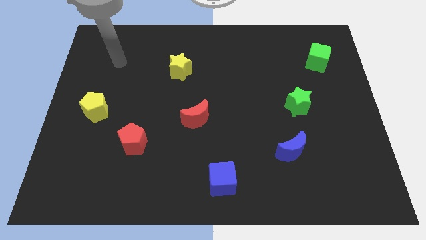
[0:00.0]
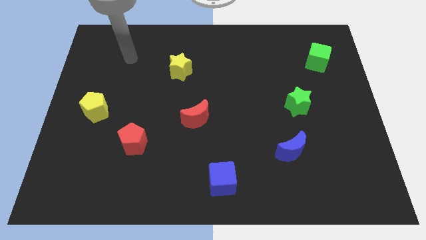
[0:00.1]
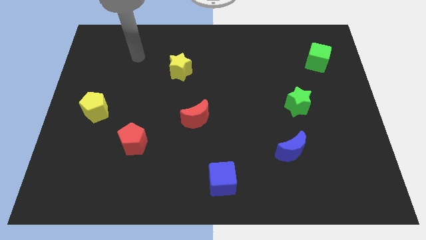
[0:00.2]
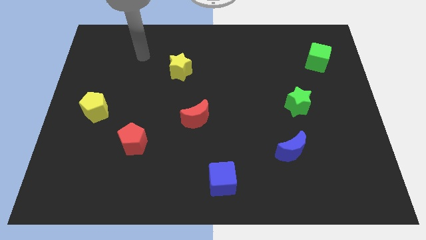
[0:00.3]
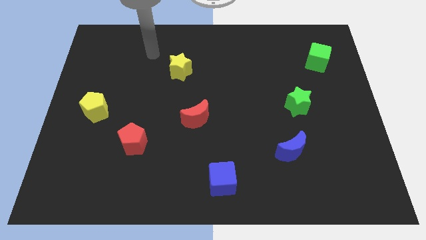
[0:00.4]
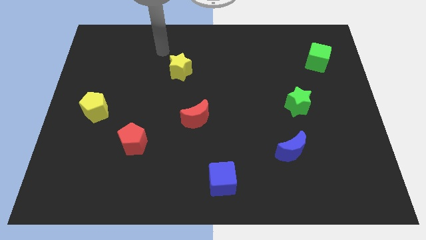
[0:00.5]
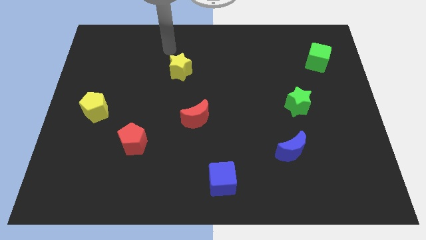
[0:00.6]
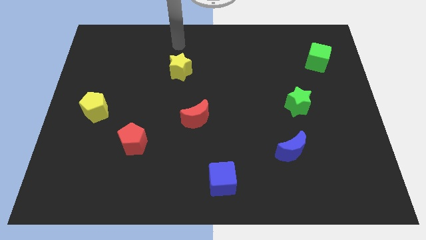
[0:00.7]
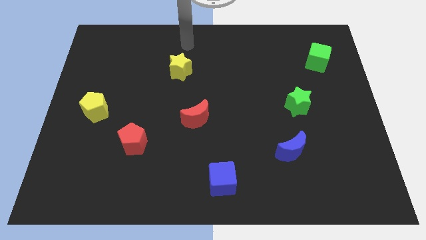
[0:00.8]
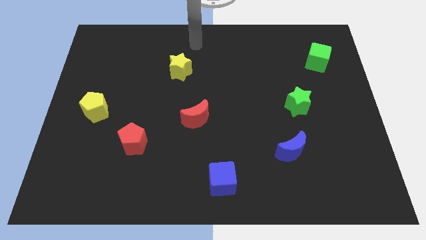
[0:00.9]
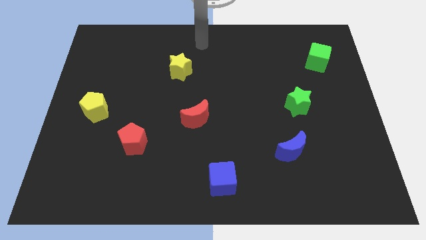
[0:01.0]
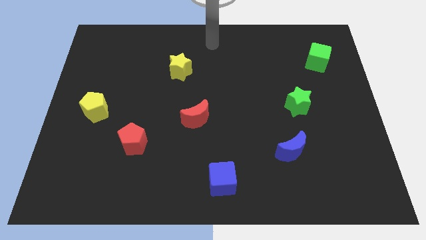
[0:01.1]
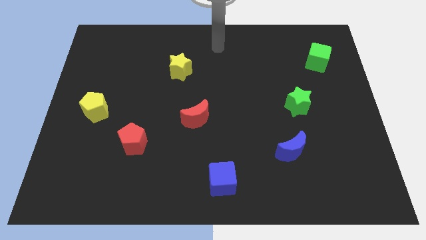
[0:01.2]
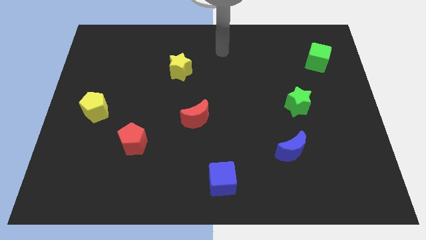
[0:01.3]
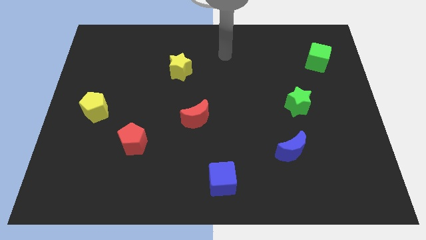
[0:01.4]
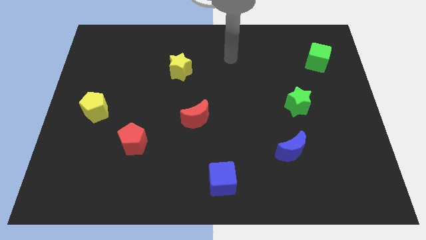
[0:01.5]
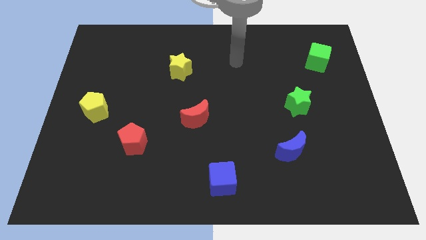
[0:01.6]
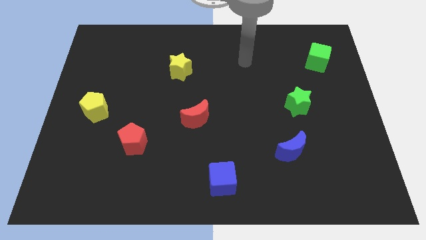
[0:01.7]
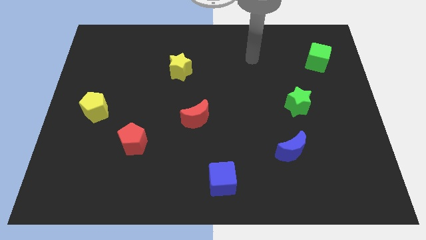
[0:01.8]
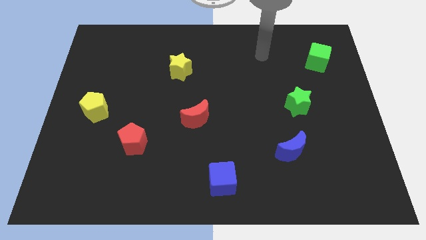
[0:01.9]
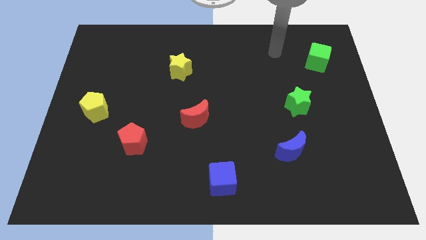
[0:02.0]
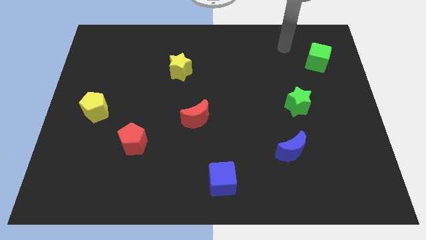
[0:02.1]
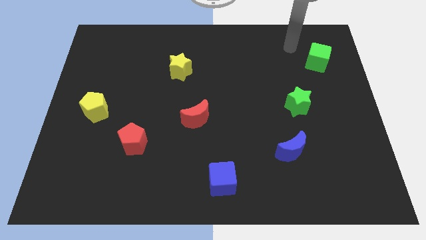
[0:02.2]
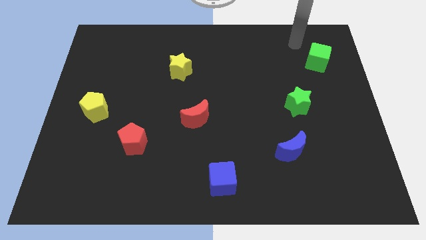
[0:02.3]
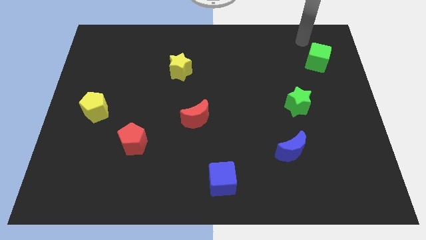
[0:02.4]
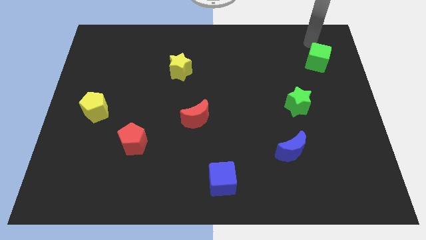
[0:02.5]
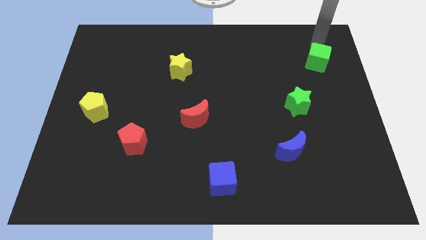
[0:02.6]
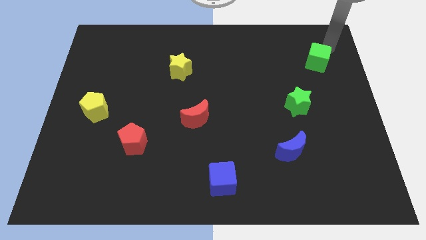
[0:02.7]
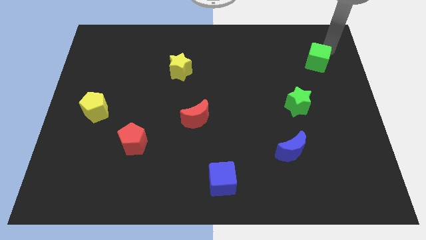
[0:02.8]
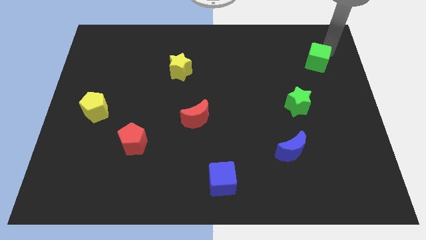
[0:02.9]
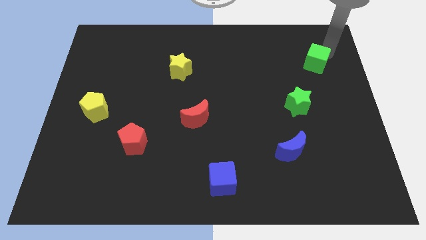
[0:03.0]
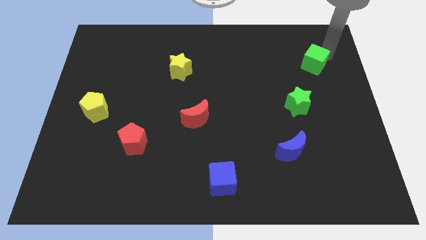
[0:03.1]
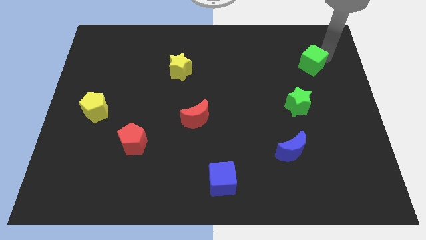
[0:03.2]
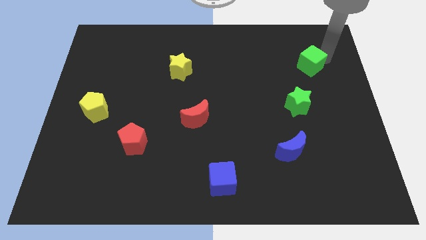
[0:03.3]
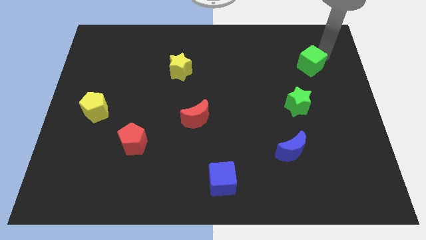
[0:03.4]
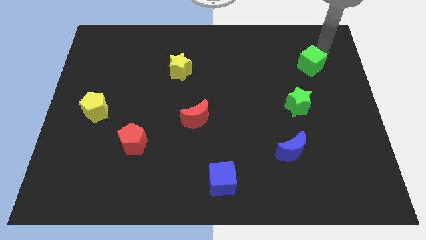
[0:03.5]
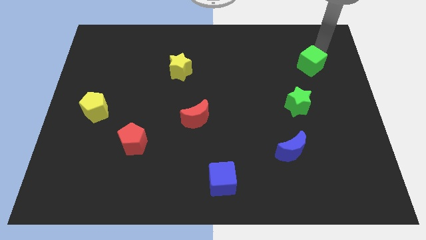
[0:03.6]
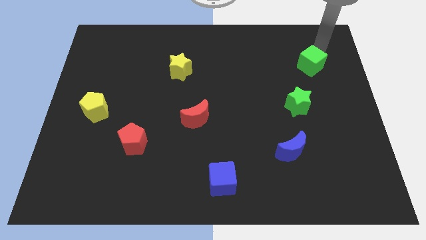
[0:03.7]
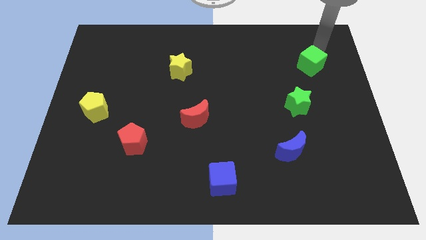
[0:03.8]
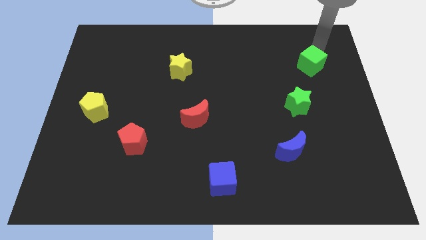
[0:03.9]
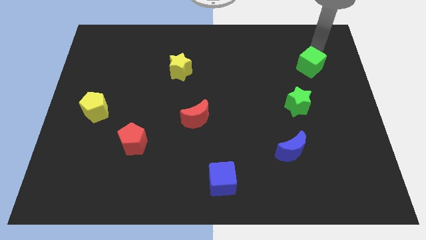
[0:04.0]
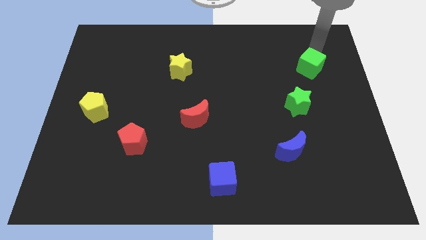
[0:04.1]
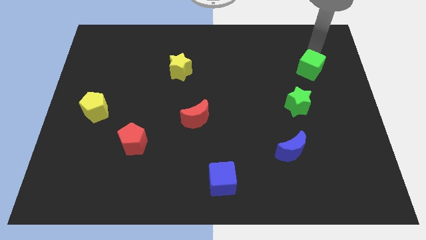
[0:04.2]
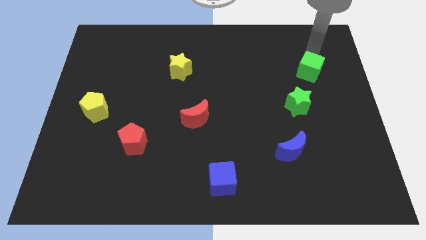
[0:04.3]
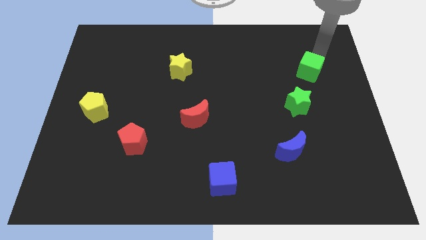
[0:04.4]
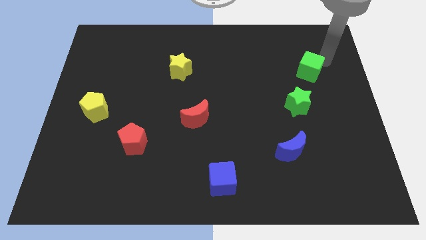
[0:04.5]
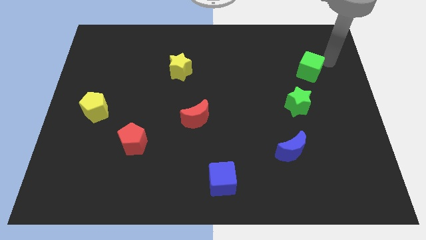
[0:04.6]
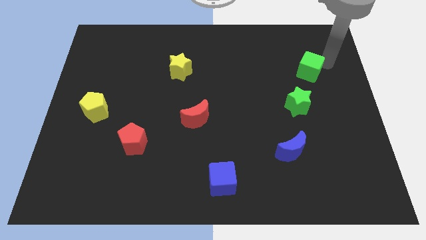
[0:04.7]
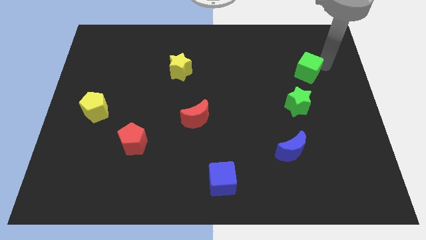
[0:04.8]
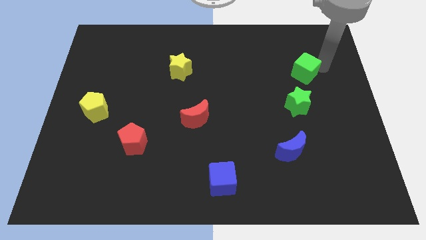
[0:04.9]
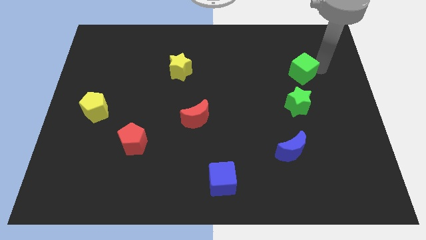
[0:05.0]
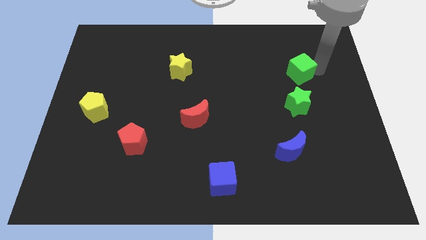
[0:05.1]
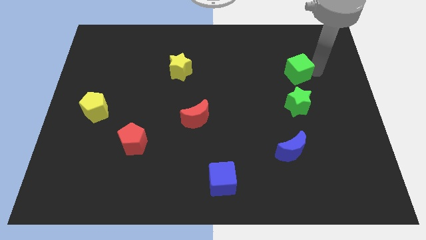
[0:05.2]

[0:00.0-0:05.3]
slide the green cube downwards and to the left slightly

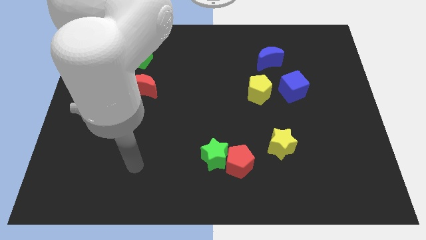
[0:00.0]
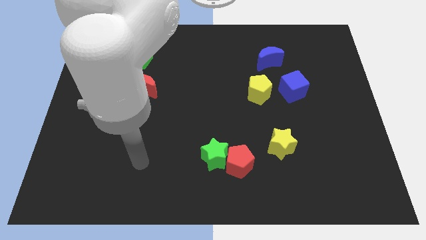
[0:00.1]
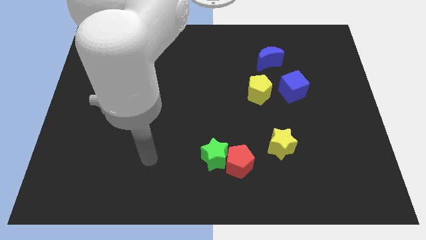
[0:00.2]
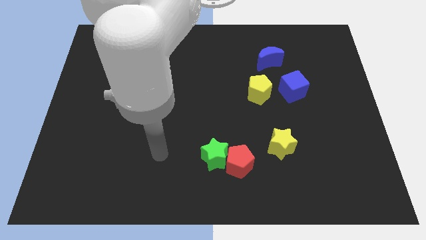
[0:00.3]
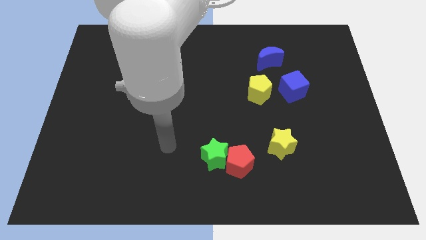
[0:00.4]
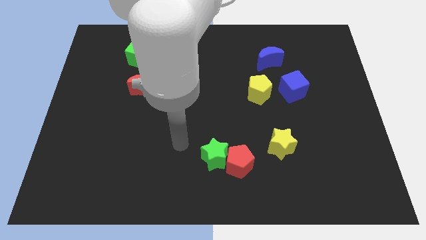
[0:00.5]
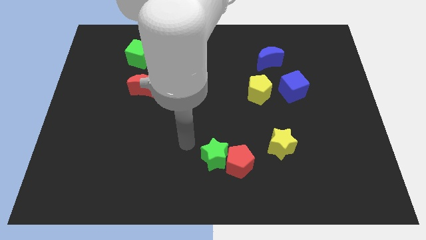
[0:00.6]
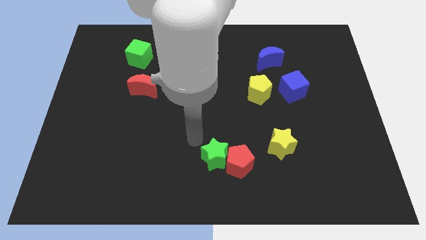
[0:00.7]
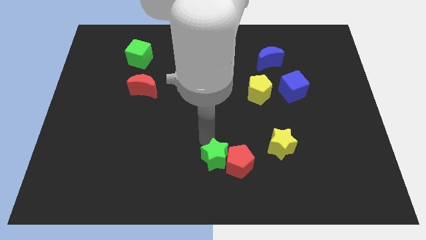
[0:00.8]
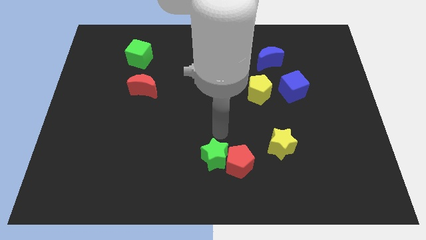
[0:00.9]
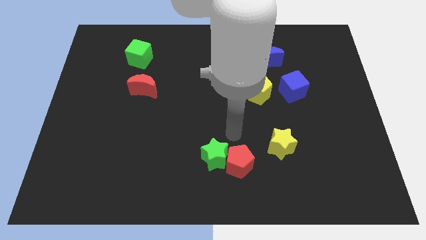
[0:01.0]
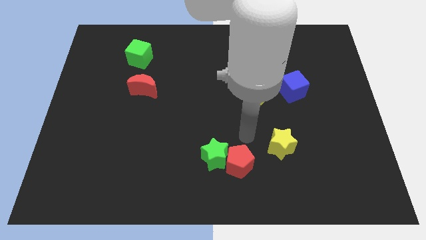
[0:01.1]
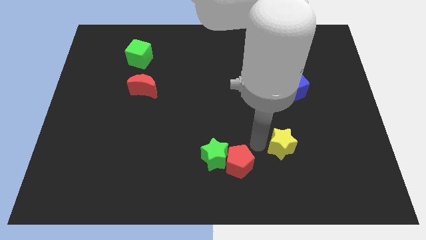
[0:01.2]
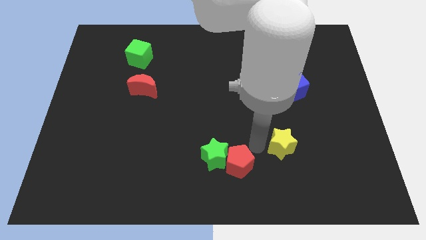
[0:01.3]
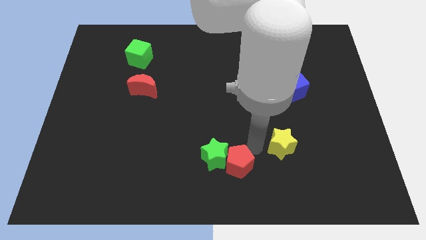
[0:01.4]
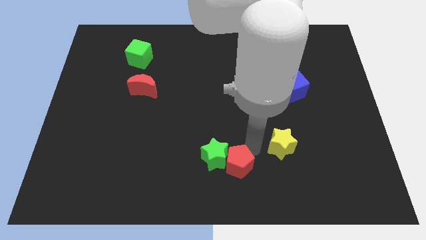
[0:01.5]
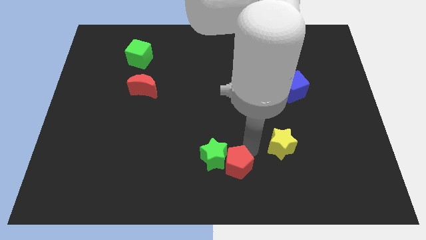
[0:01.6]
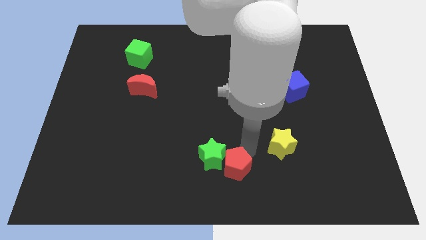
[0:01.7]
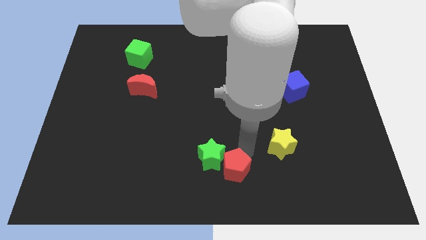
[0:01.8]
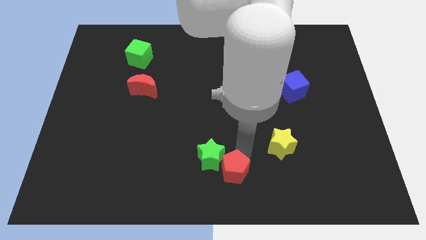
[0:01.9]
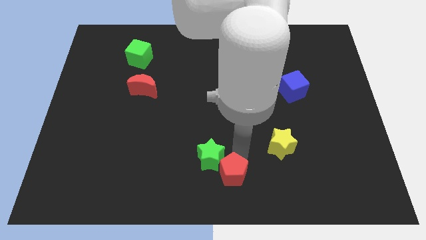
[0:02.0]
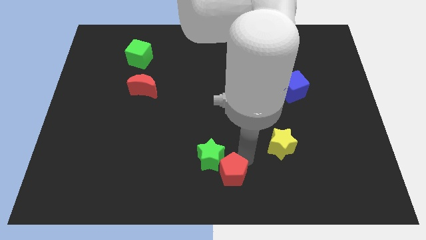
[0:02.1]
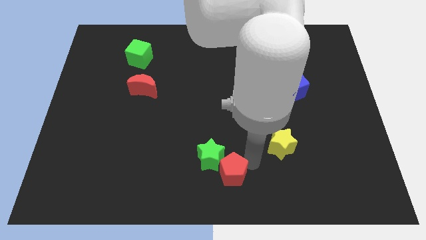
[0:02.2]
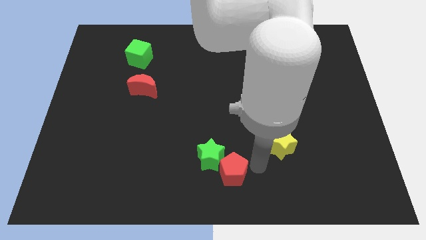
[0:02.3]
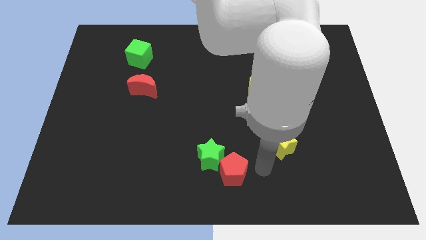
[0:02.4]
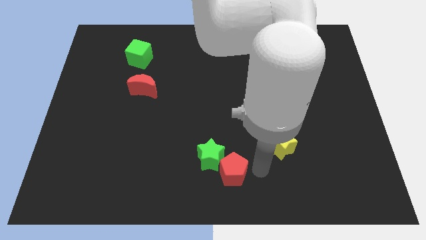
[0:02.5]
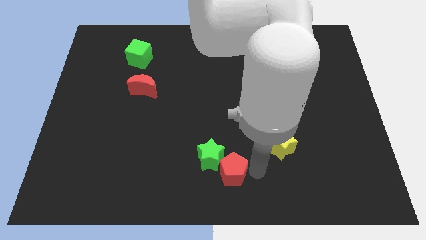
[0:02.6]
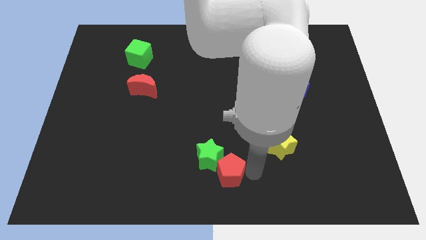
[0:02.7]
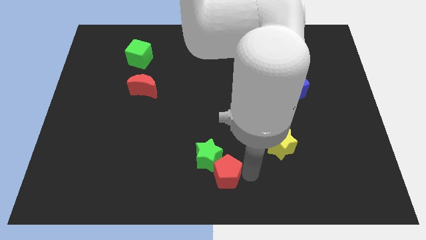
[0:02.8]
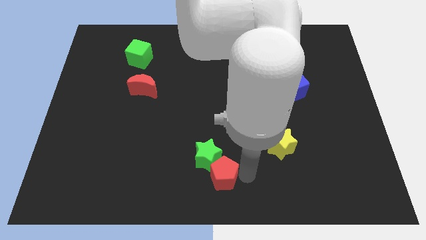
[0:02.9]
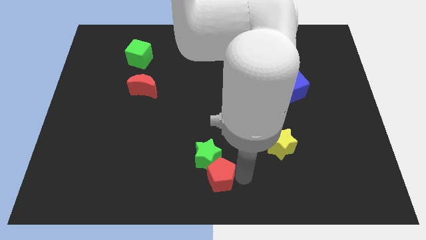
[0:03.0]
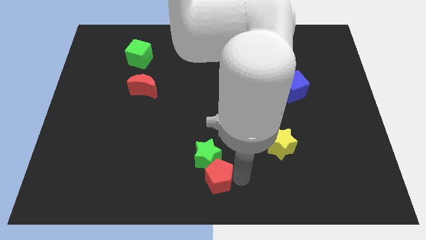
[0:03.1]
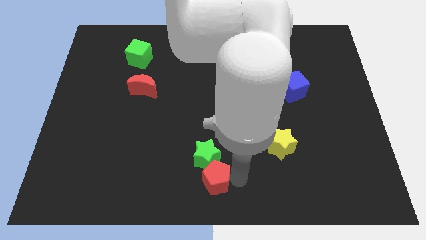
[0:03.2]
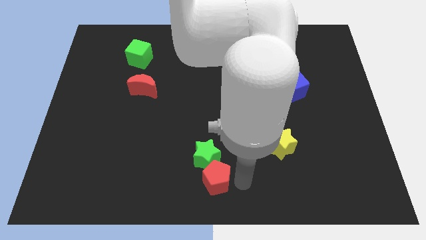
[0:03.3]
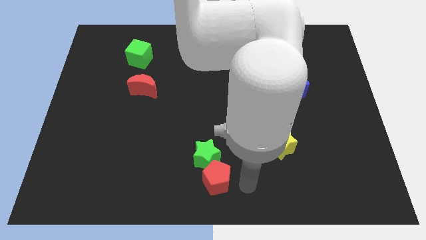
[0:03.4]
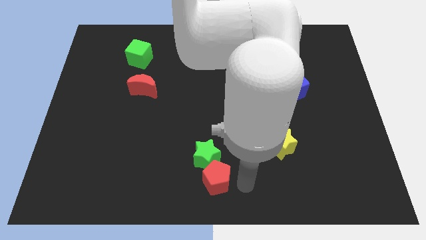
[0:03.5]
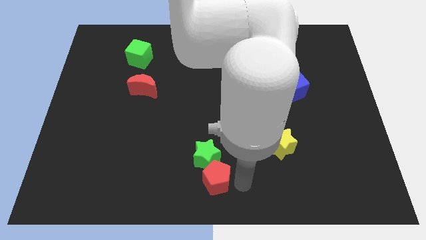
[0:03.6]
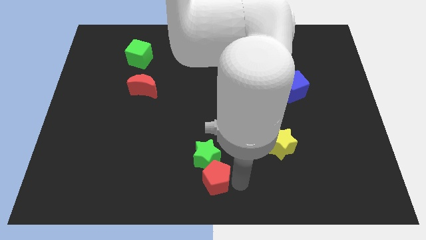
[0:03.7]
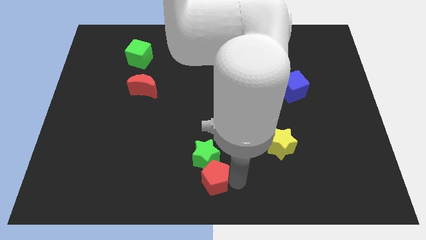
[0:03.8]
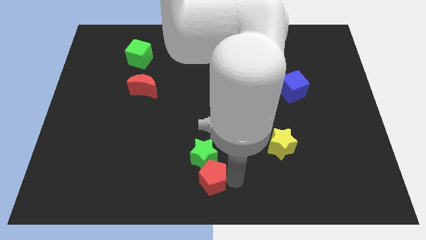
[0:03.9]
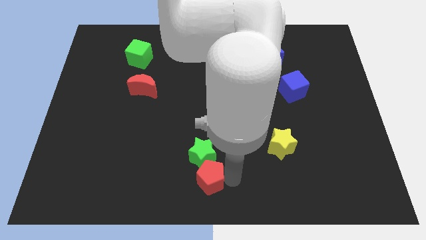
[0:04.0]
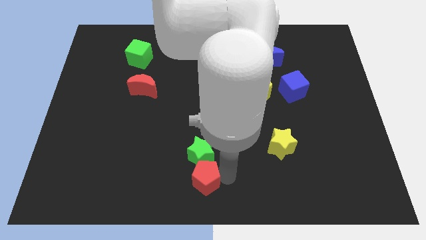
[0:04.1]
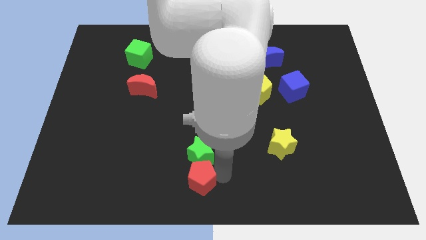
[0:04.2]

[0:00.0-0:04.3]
slide the red pentagon left a bit
